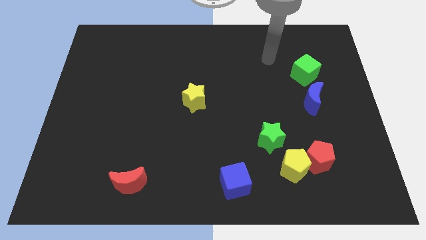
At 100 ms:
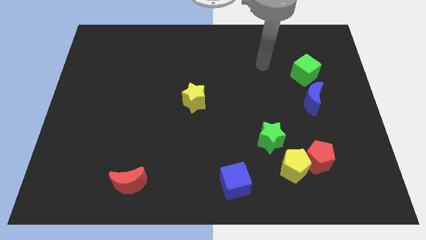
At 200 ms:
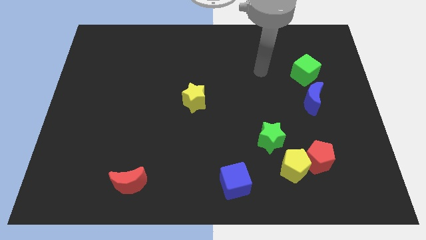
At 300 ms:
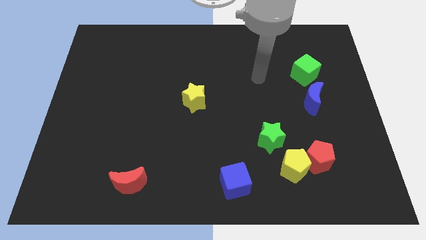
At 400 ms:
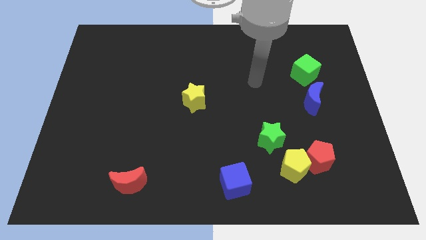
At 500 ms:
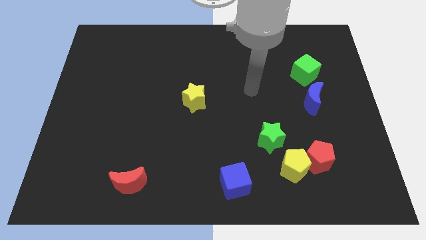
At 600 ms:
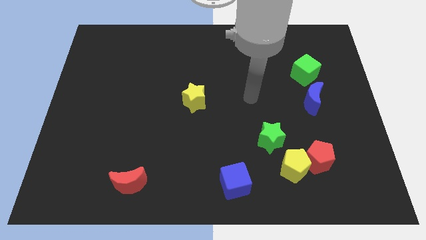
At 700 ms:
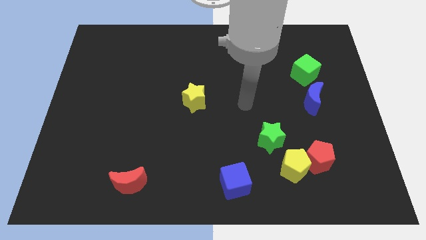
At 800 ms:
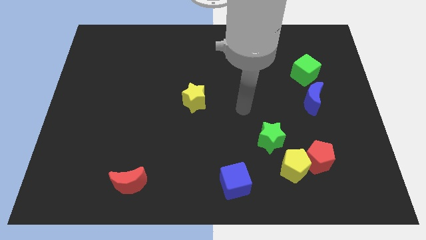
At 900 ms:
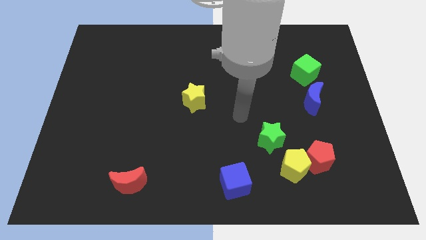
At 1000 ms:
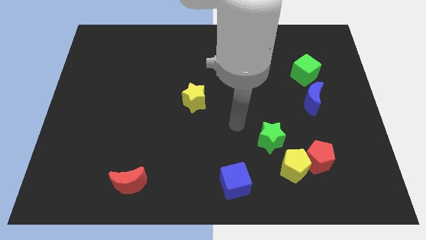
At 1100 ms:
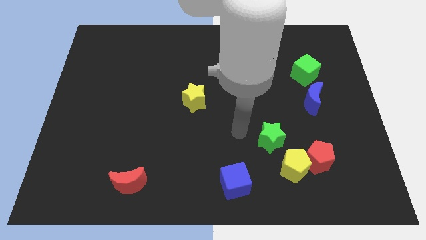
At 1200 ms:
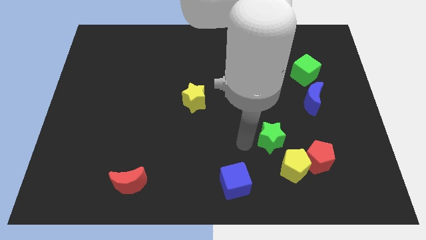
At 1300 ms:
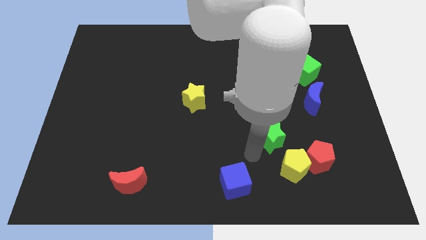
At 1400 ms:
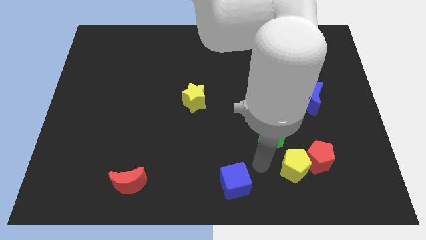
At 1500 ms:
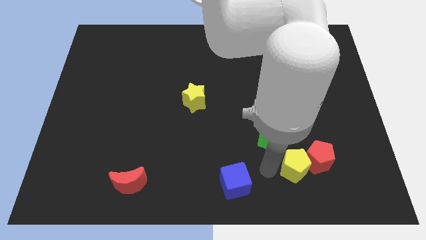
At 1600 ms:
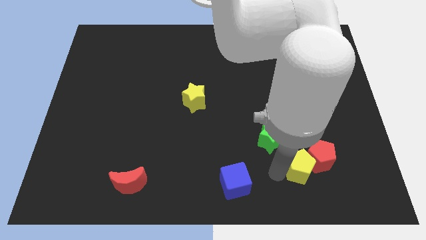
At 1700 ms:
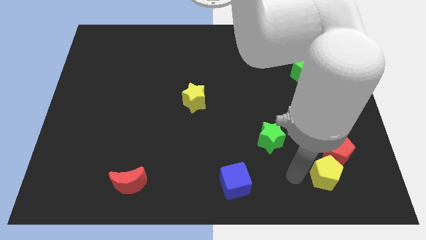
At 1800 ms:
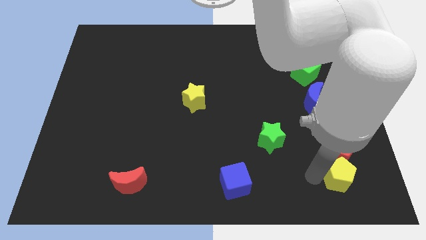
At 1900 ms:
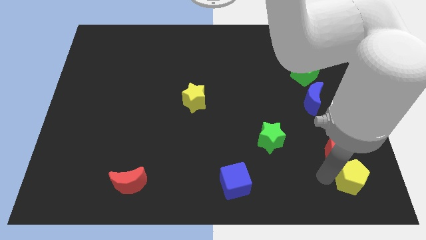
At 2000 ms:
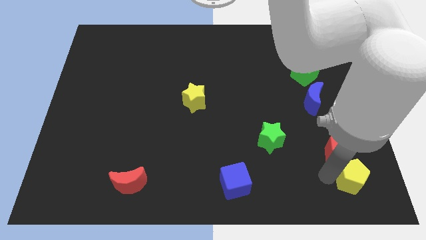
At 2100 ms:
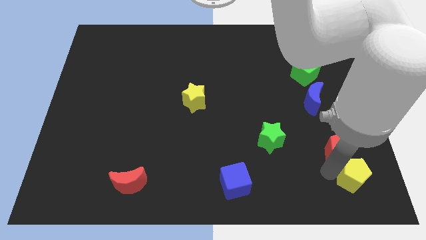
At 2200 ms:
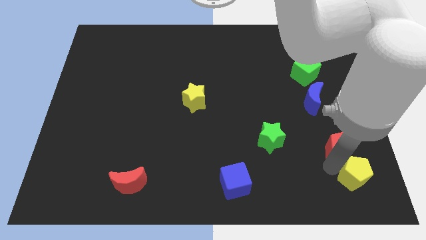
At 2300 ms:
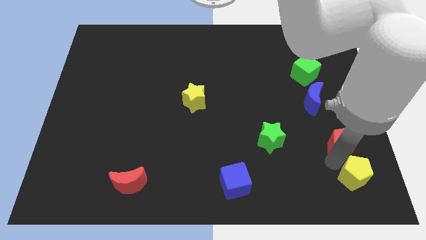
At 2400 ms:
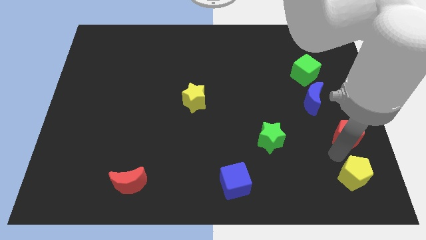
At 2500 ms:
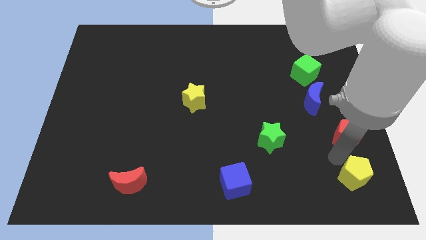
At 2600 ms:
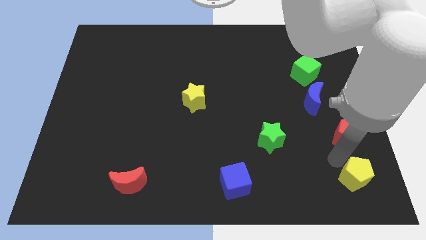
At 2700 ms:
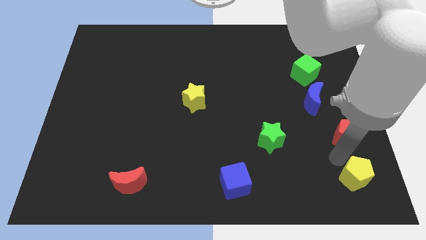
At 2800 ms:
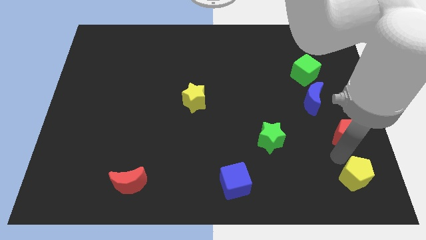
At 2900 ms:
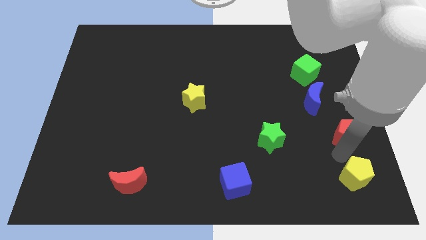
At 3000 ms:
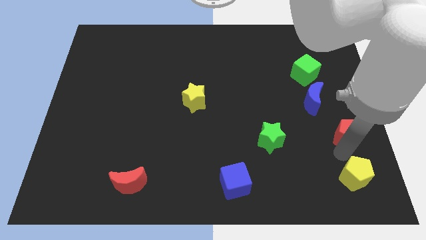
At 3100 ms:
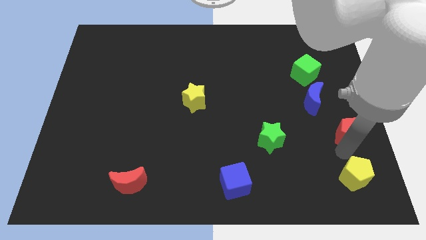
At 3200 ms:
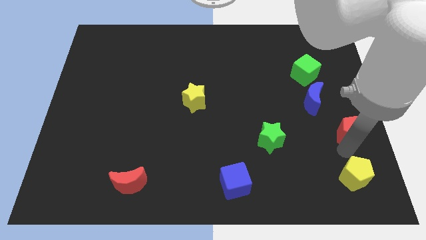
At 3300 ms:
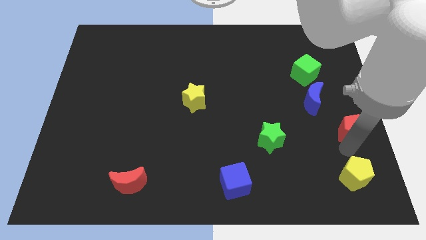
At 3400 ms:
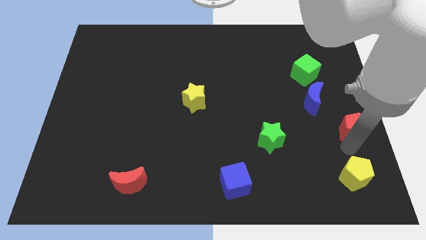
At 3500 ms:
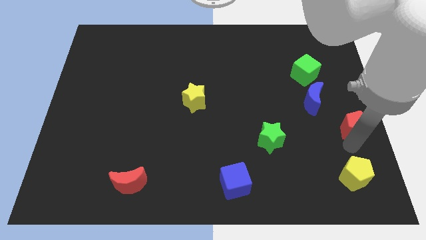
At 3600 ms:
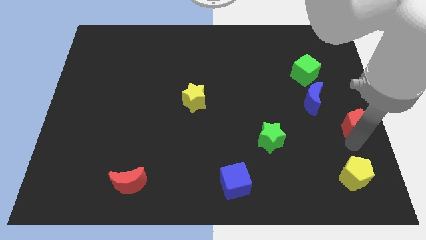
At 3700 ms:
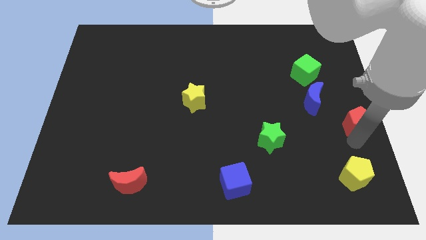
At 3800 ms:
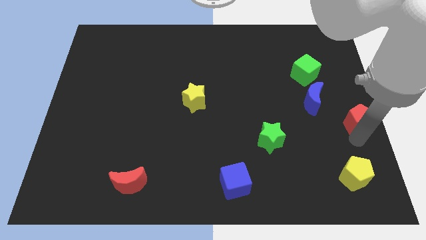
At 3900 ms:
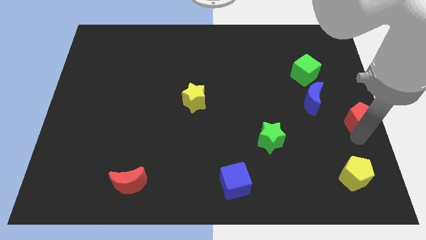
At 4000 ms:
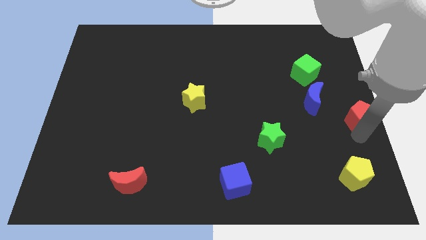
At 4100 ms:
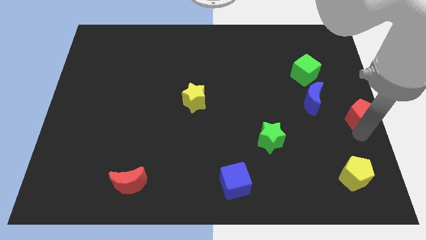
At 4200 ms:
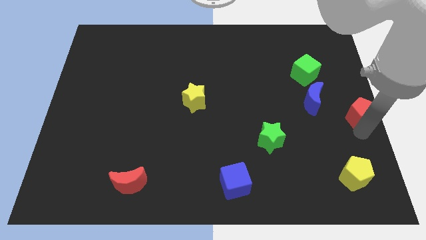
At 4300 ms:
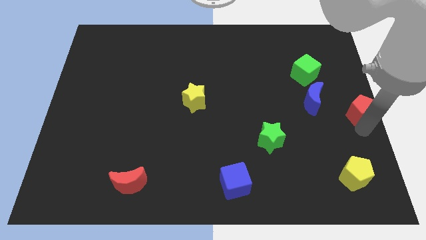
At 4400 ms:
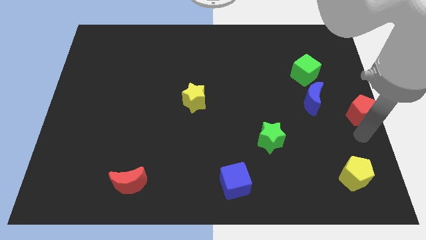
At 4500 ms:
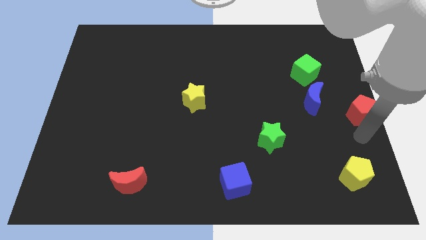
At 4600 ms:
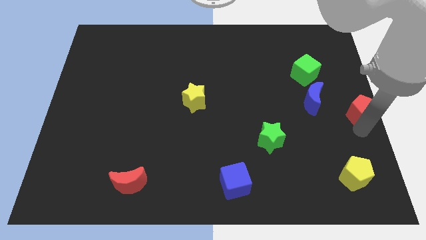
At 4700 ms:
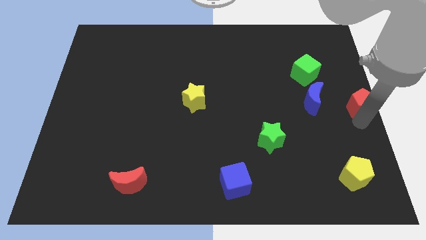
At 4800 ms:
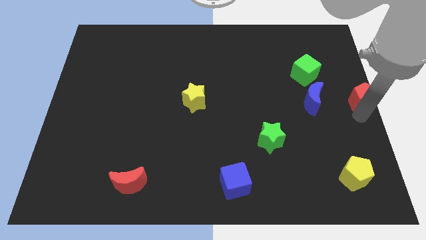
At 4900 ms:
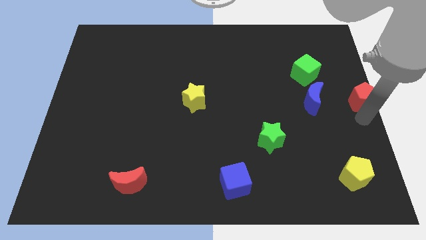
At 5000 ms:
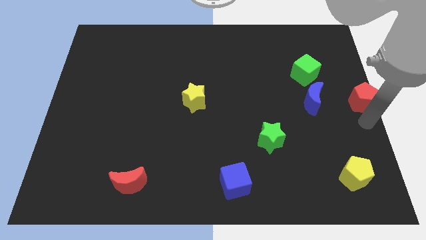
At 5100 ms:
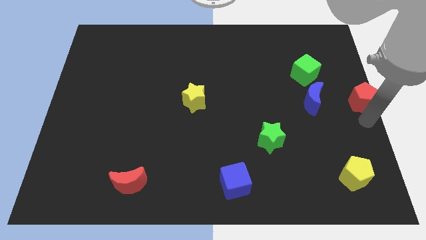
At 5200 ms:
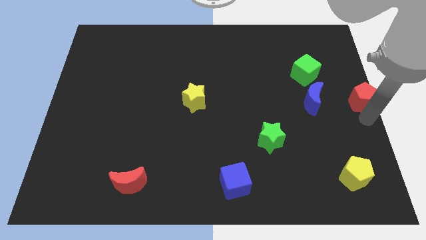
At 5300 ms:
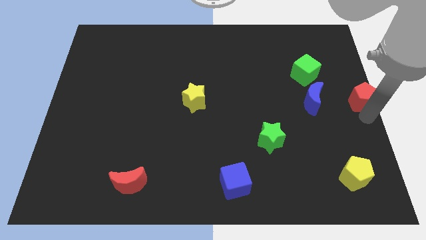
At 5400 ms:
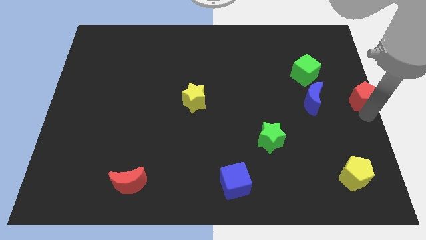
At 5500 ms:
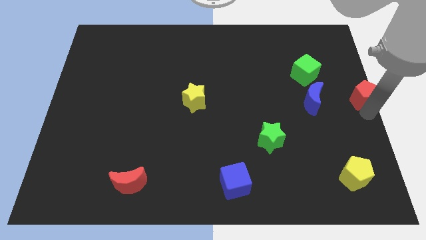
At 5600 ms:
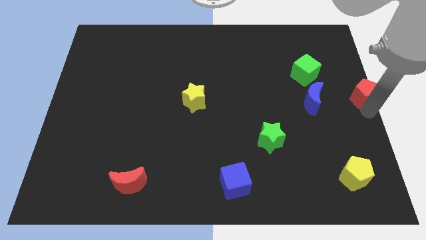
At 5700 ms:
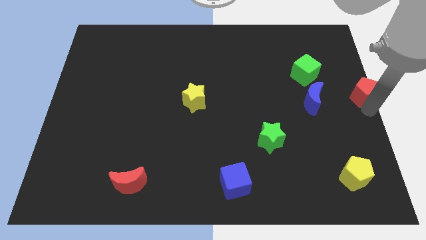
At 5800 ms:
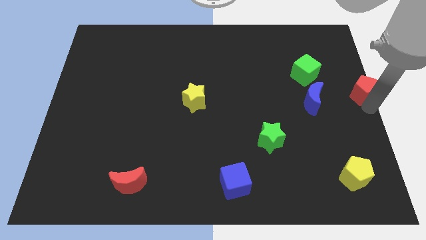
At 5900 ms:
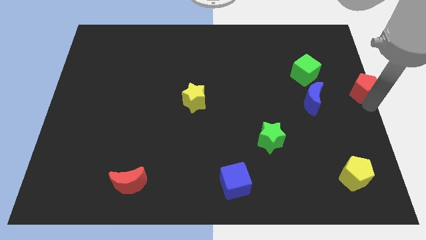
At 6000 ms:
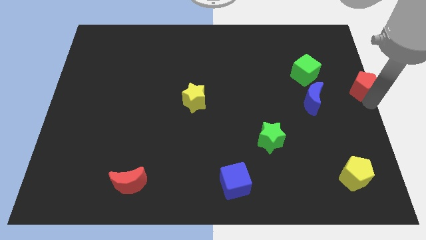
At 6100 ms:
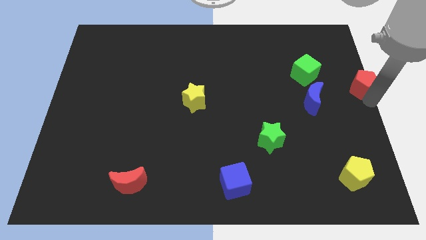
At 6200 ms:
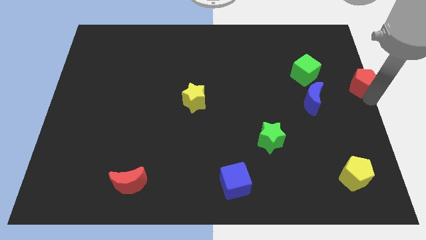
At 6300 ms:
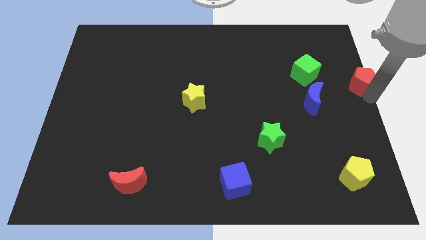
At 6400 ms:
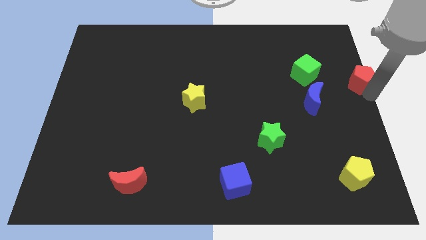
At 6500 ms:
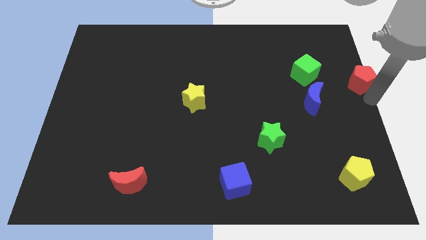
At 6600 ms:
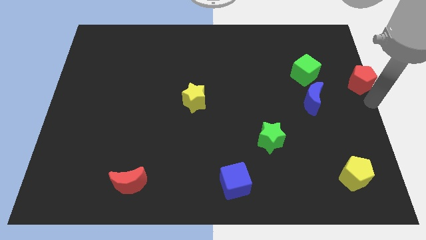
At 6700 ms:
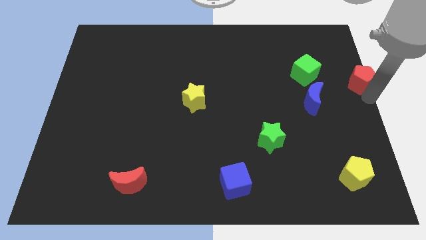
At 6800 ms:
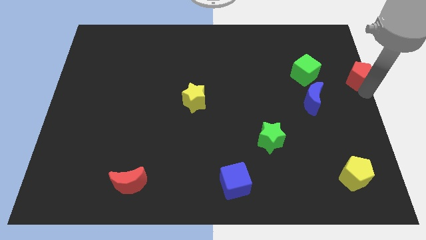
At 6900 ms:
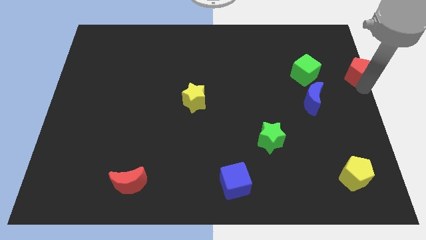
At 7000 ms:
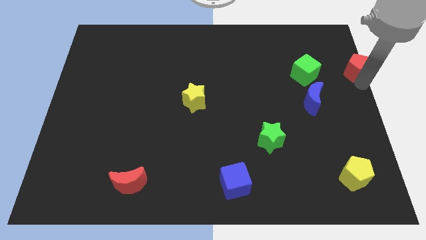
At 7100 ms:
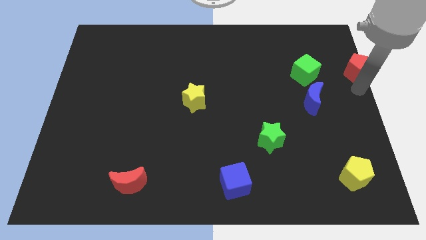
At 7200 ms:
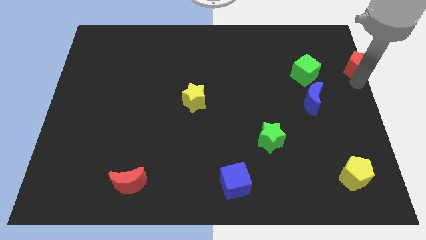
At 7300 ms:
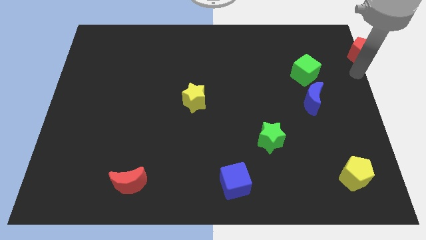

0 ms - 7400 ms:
push the red pentagon to the top right
